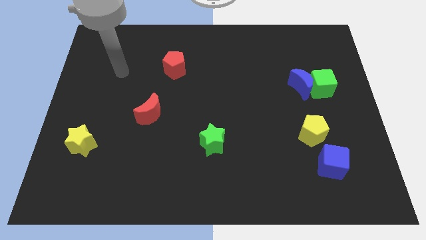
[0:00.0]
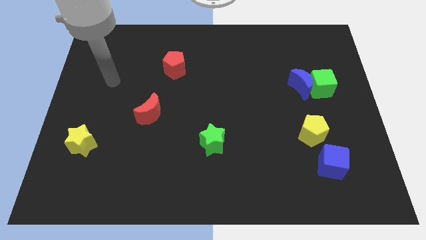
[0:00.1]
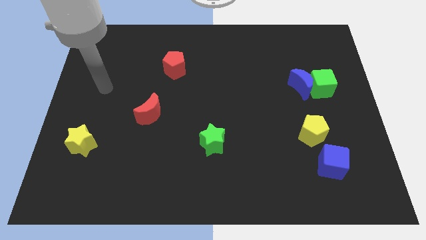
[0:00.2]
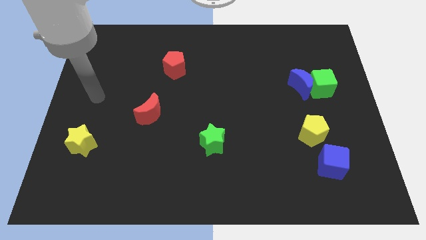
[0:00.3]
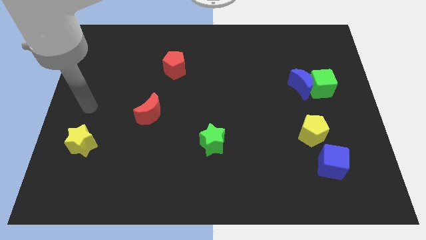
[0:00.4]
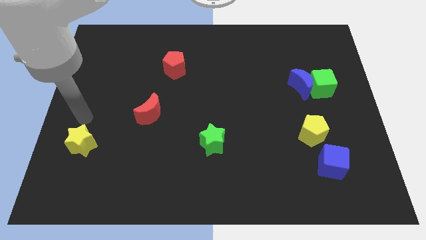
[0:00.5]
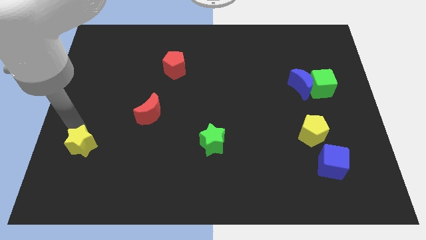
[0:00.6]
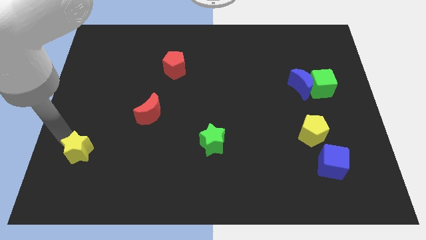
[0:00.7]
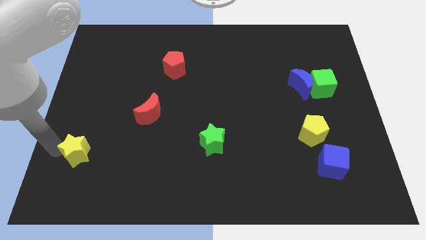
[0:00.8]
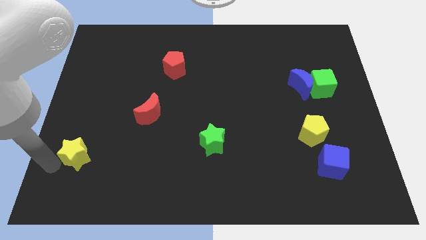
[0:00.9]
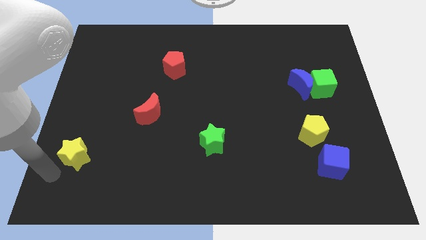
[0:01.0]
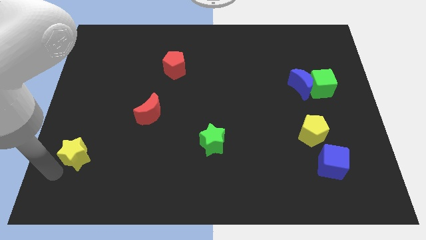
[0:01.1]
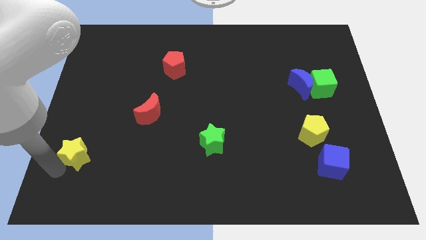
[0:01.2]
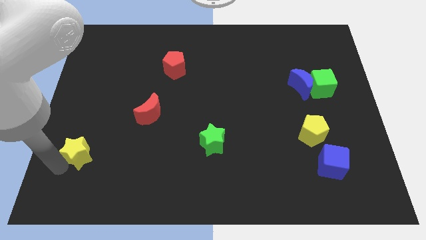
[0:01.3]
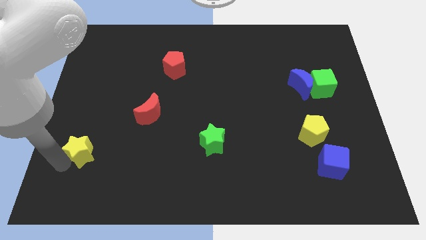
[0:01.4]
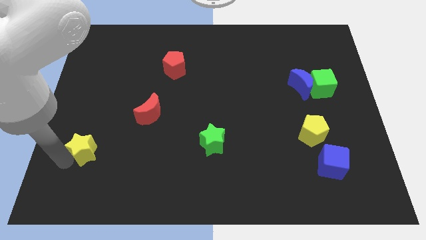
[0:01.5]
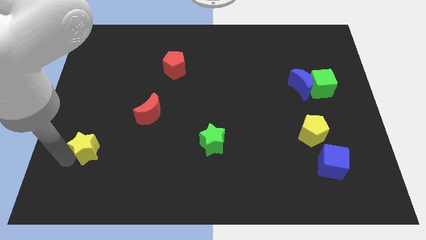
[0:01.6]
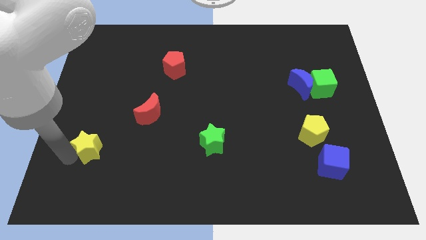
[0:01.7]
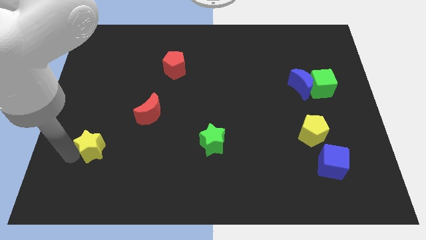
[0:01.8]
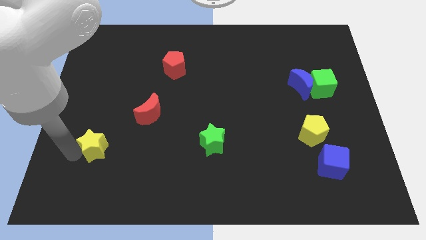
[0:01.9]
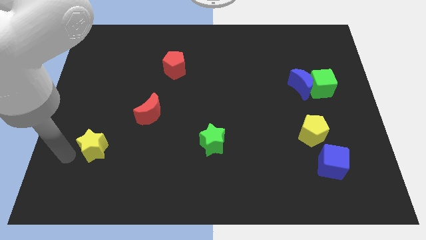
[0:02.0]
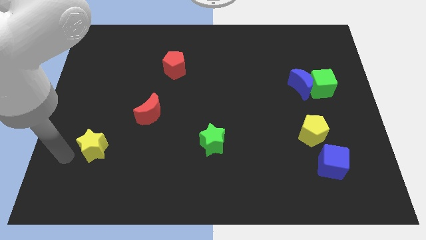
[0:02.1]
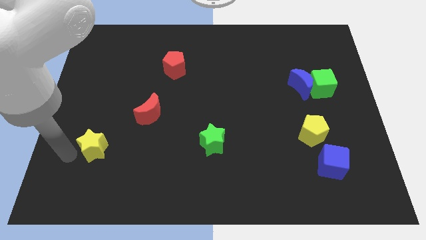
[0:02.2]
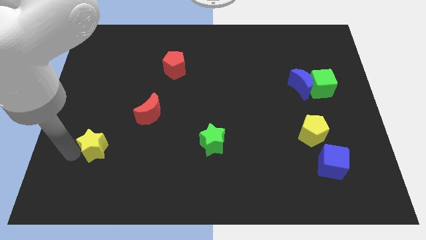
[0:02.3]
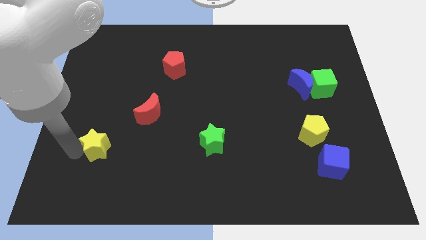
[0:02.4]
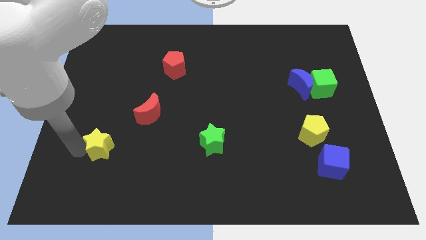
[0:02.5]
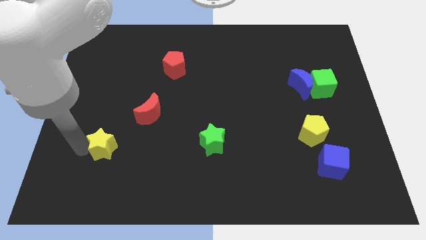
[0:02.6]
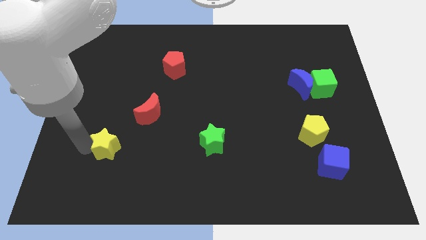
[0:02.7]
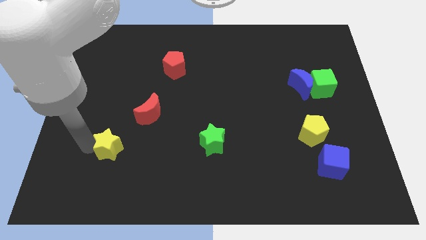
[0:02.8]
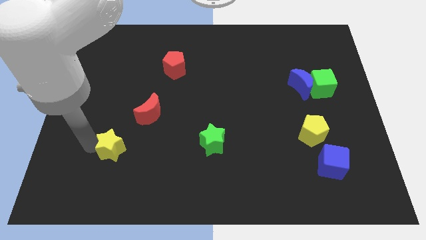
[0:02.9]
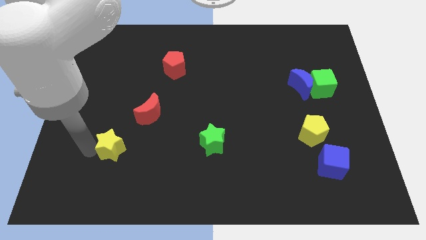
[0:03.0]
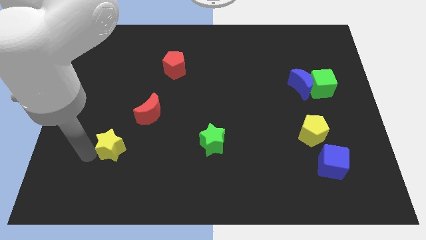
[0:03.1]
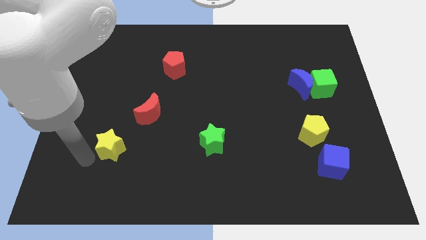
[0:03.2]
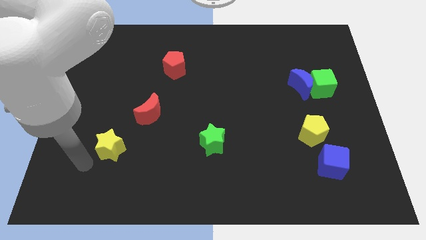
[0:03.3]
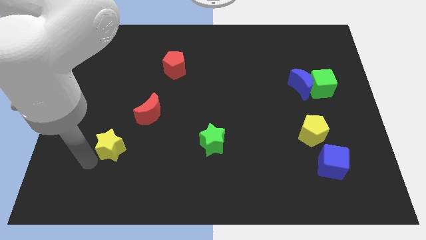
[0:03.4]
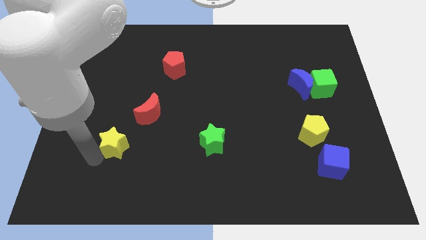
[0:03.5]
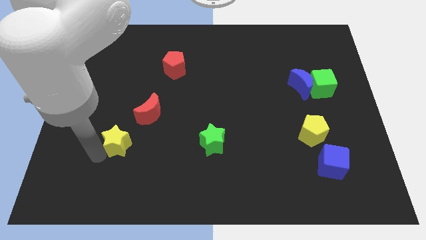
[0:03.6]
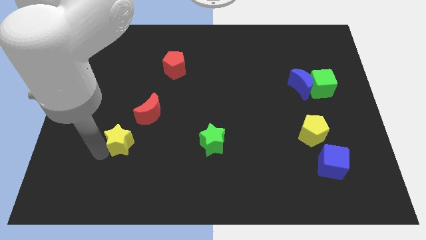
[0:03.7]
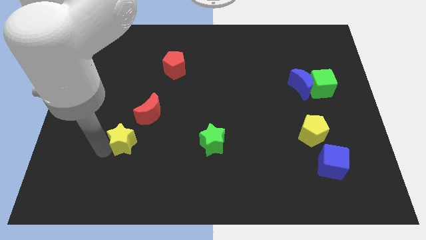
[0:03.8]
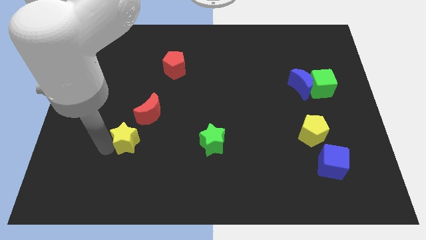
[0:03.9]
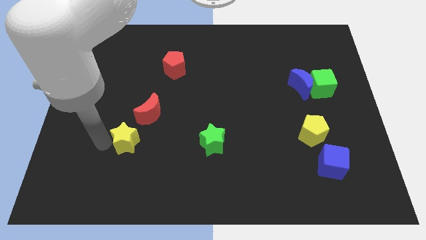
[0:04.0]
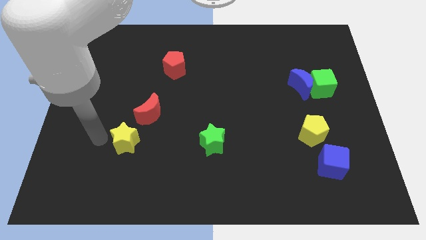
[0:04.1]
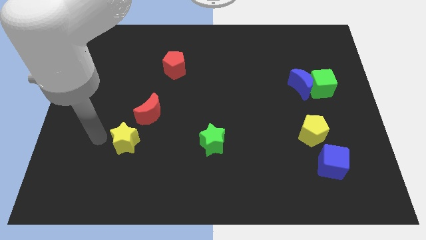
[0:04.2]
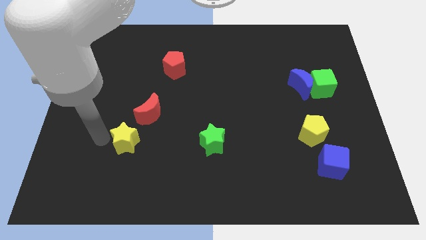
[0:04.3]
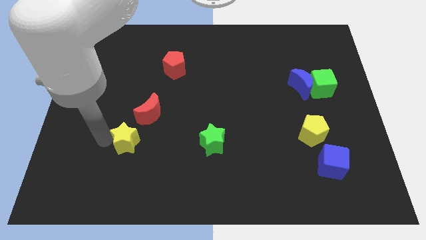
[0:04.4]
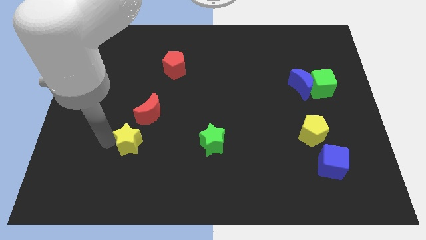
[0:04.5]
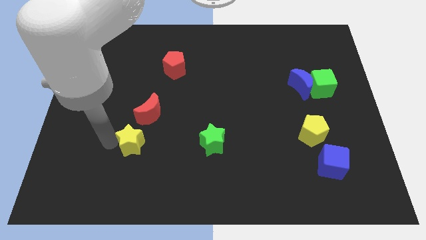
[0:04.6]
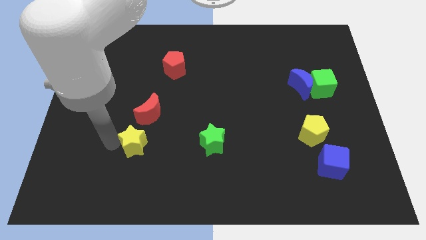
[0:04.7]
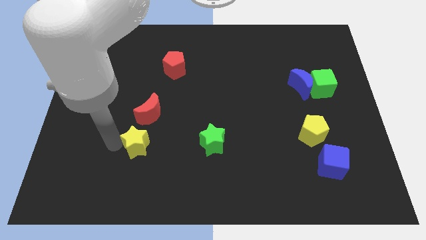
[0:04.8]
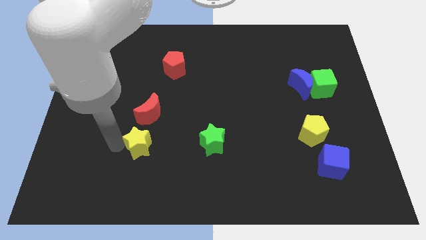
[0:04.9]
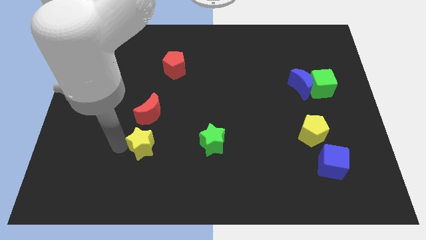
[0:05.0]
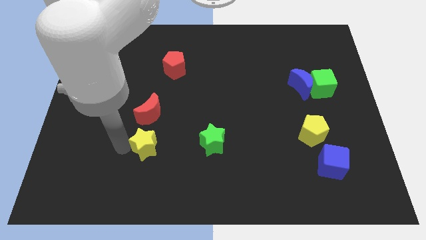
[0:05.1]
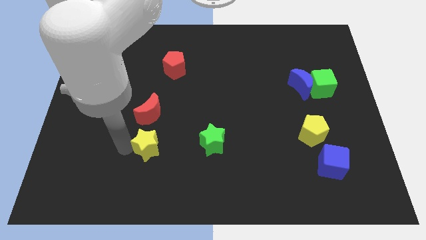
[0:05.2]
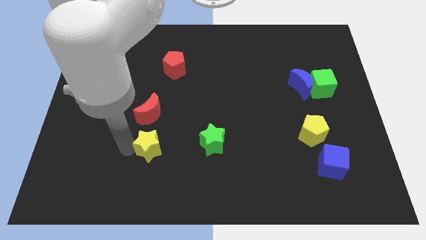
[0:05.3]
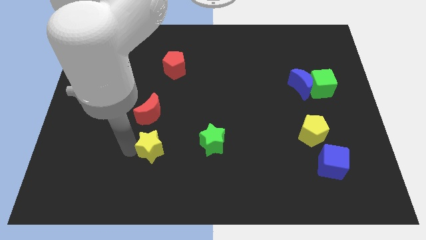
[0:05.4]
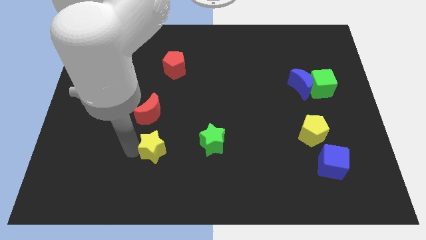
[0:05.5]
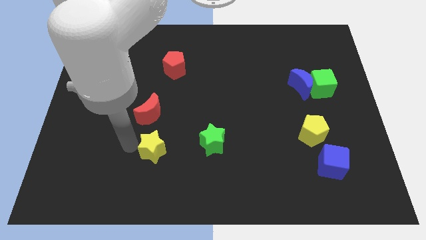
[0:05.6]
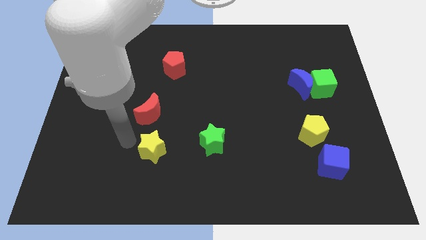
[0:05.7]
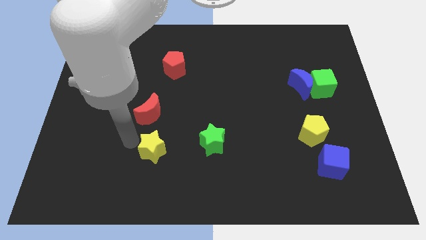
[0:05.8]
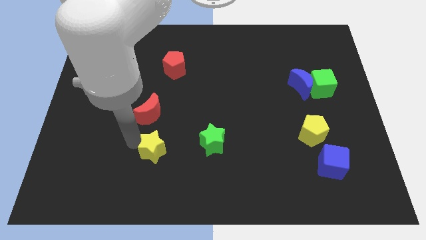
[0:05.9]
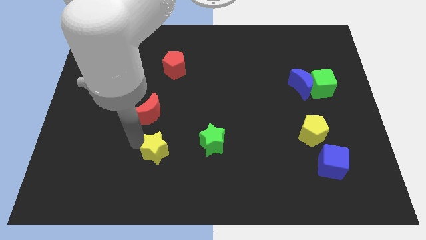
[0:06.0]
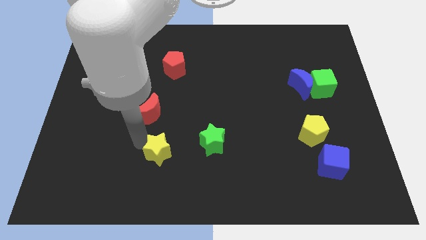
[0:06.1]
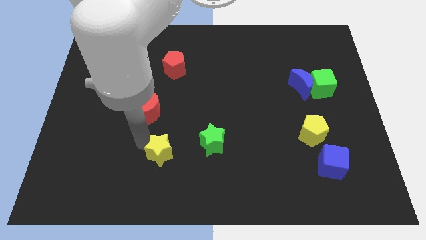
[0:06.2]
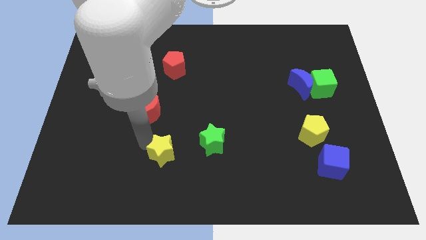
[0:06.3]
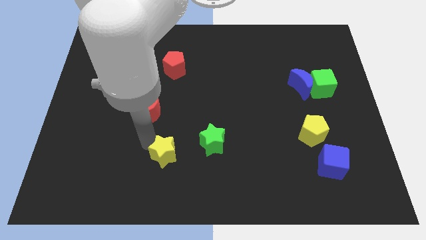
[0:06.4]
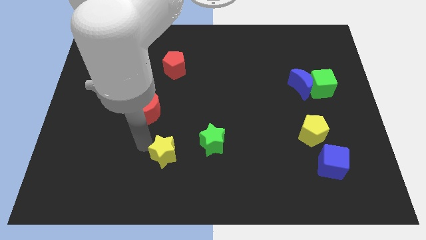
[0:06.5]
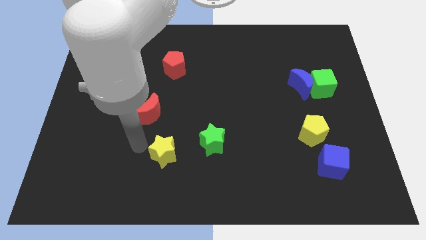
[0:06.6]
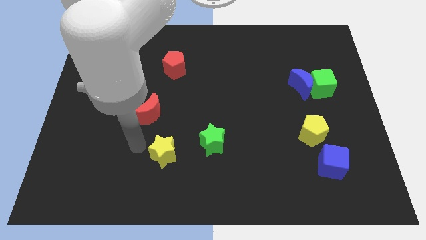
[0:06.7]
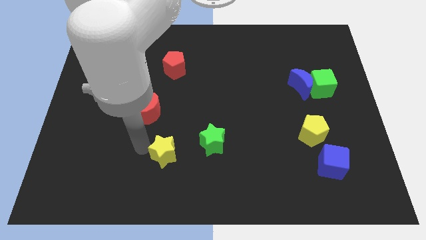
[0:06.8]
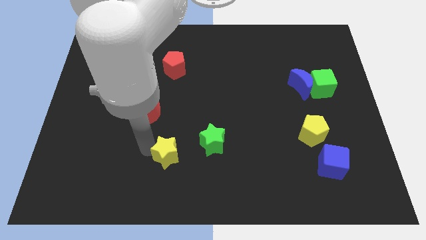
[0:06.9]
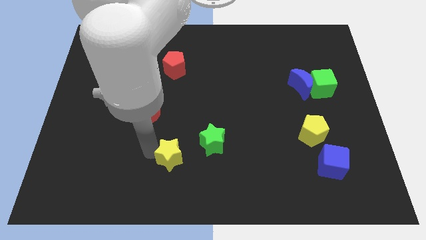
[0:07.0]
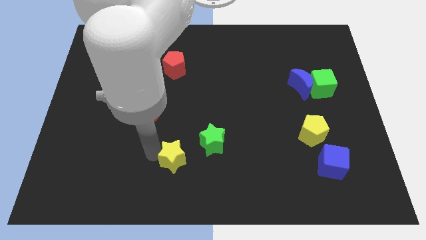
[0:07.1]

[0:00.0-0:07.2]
push the yellow star to the right

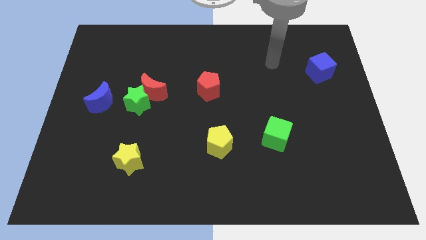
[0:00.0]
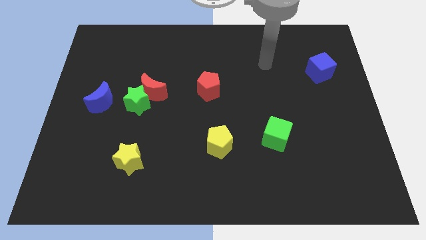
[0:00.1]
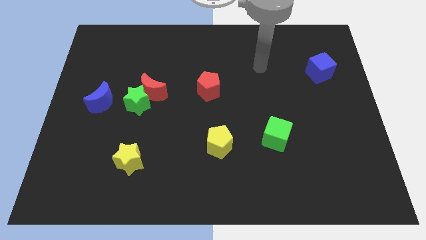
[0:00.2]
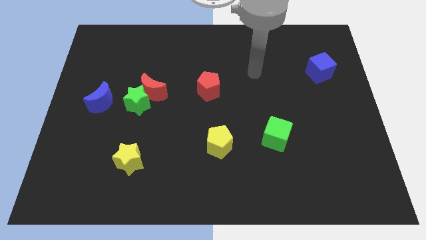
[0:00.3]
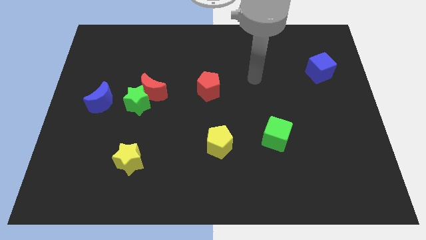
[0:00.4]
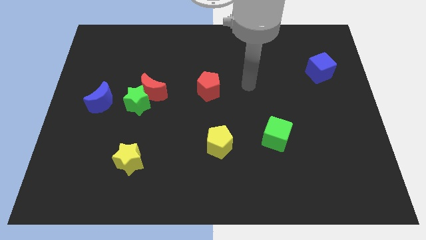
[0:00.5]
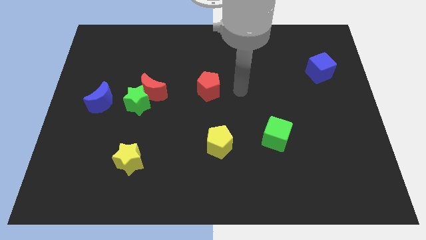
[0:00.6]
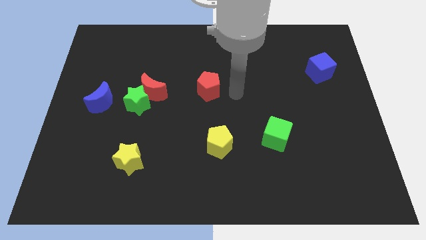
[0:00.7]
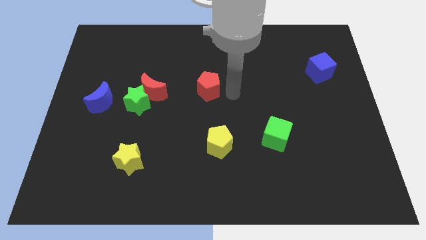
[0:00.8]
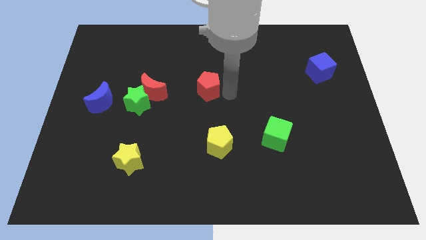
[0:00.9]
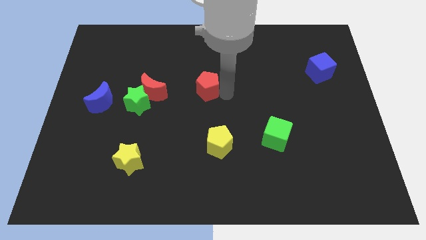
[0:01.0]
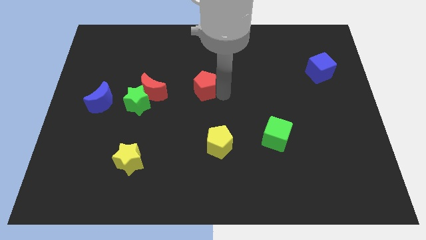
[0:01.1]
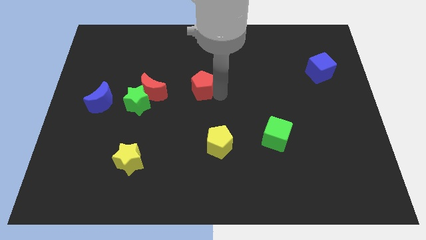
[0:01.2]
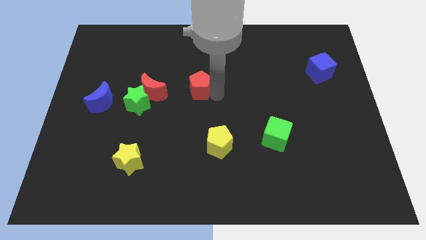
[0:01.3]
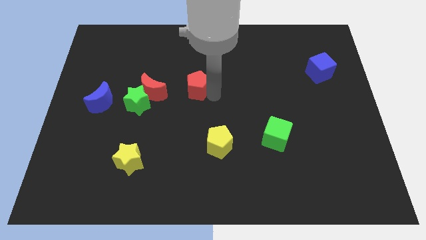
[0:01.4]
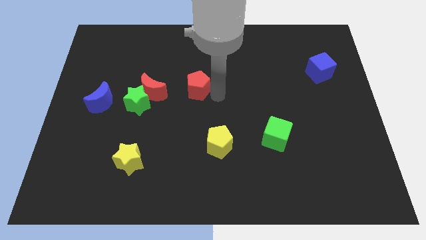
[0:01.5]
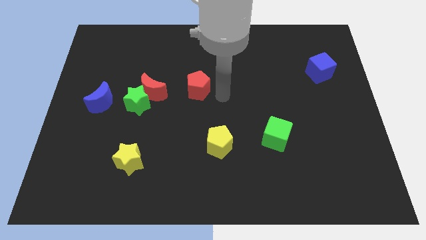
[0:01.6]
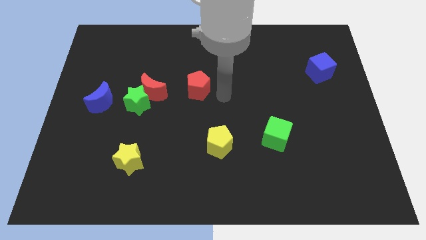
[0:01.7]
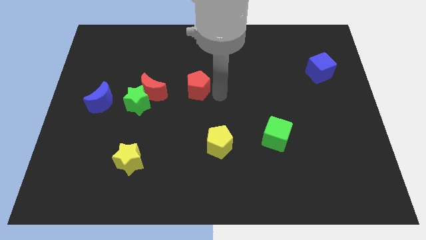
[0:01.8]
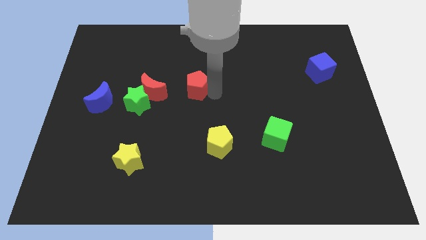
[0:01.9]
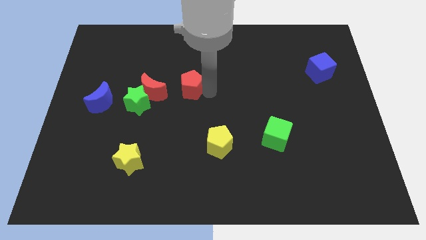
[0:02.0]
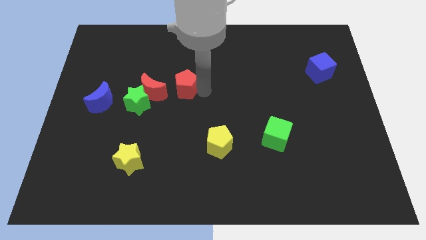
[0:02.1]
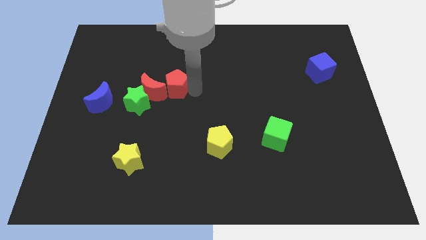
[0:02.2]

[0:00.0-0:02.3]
slightly push the red pentagon to the left
